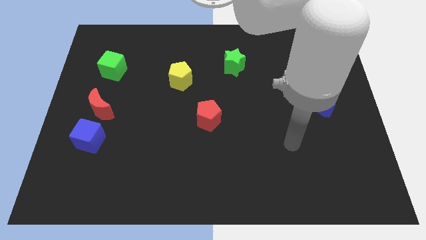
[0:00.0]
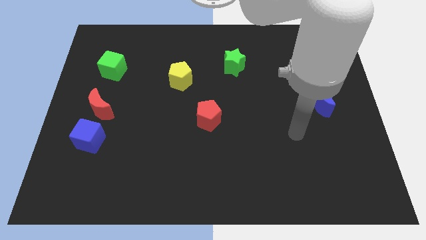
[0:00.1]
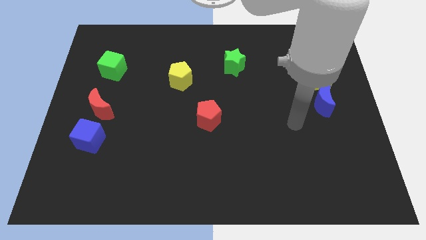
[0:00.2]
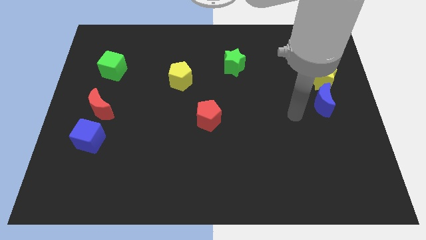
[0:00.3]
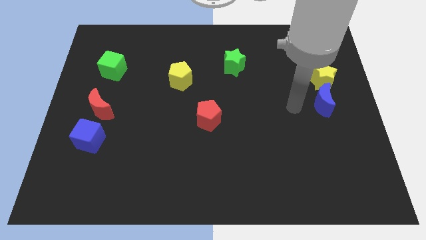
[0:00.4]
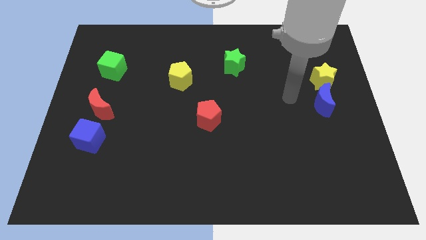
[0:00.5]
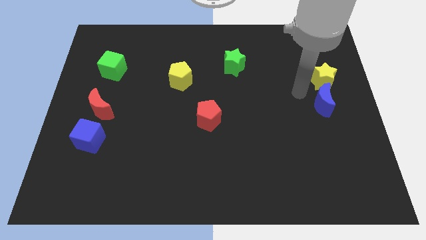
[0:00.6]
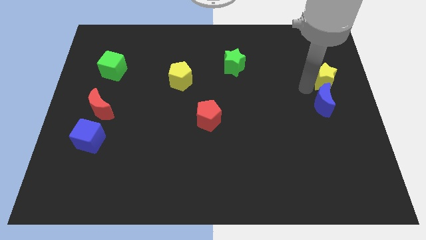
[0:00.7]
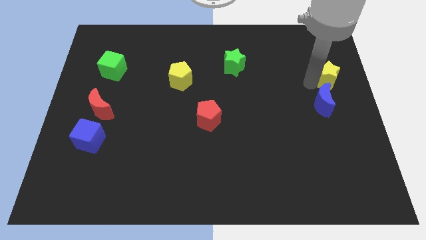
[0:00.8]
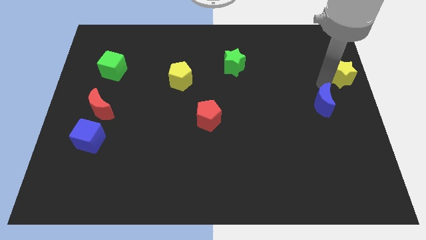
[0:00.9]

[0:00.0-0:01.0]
pull the blue moon apart from the yellow star

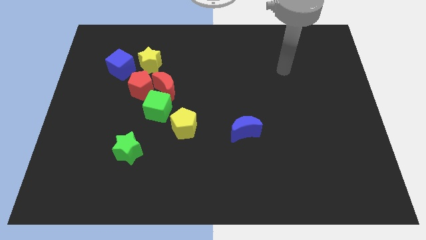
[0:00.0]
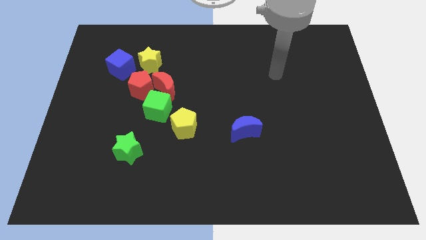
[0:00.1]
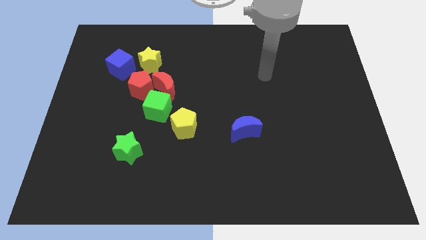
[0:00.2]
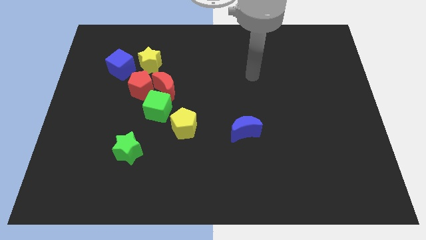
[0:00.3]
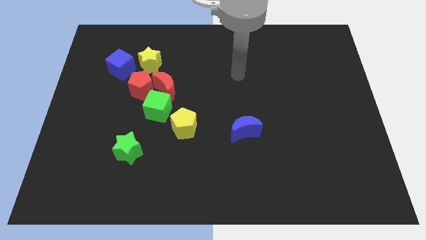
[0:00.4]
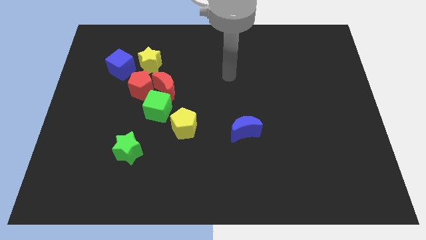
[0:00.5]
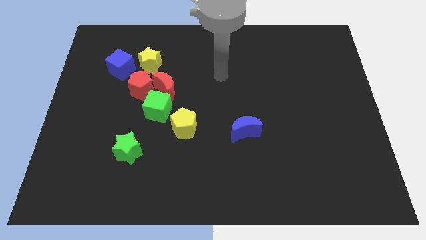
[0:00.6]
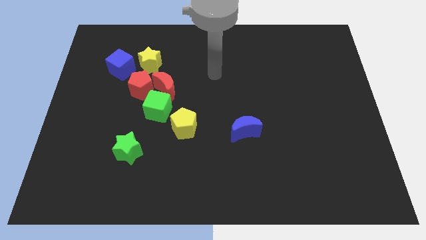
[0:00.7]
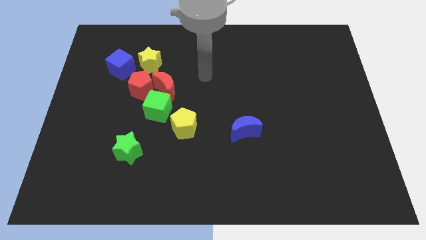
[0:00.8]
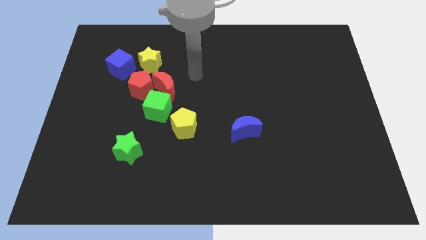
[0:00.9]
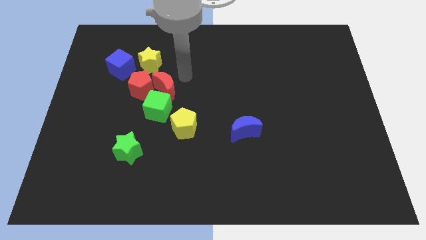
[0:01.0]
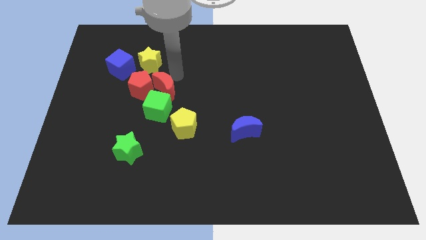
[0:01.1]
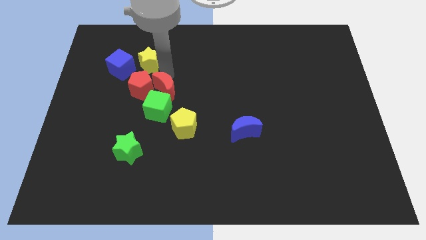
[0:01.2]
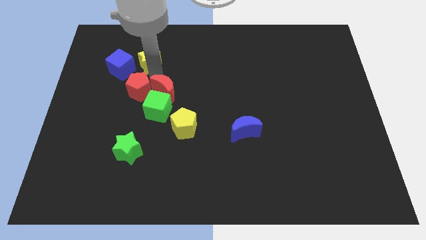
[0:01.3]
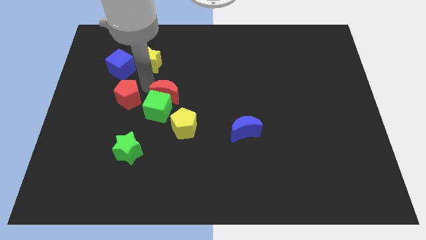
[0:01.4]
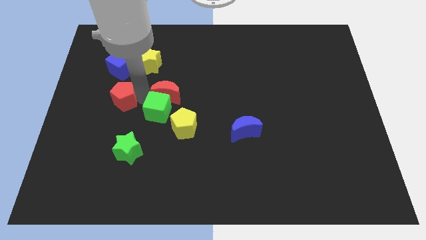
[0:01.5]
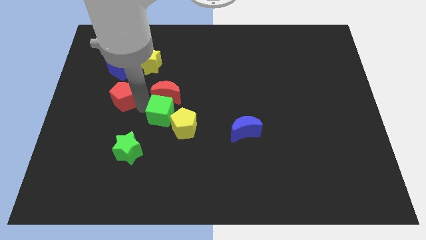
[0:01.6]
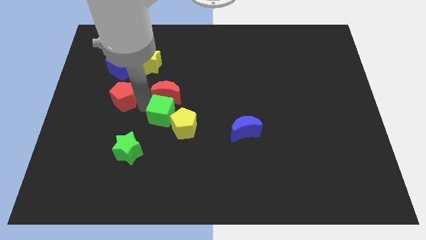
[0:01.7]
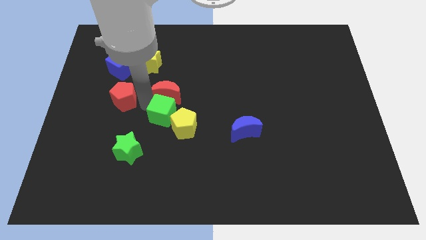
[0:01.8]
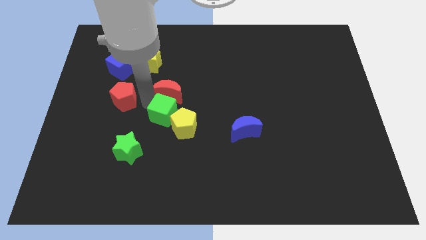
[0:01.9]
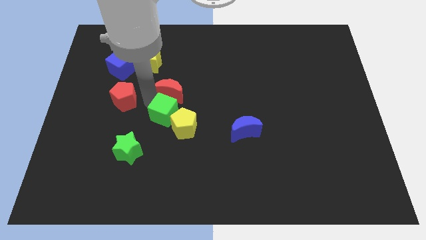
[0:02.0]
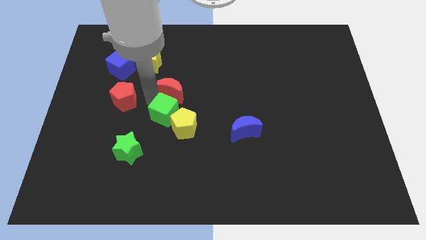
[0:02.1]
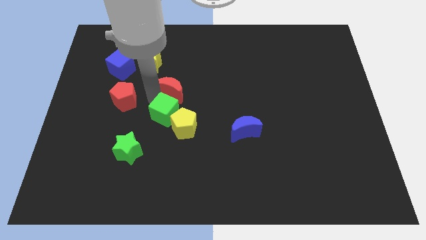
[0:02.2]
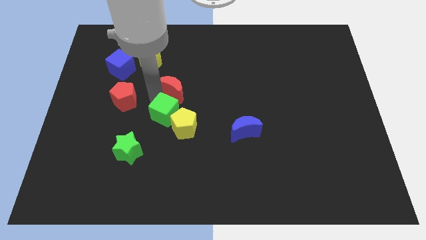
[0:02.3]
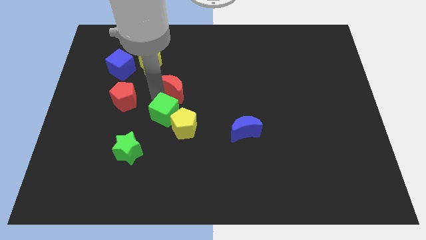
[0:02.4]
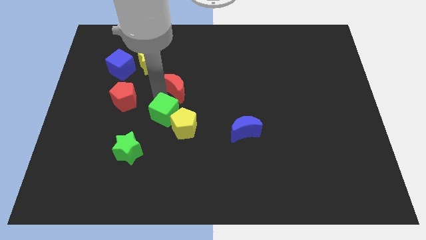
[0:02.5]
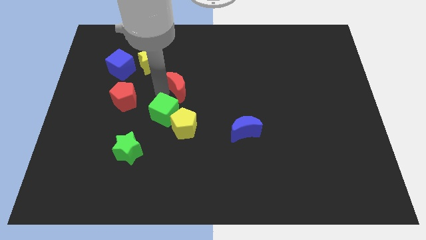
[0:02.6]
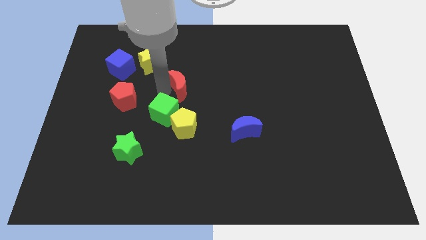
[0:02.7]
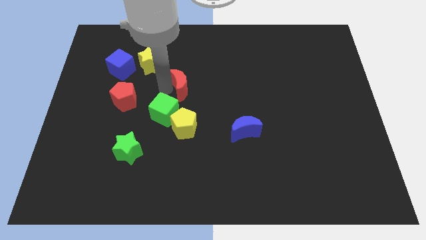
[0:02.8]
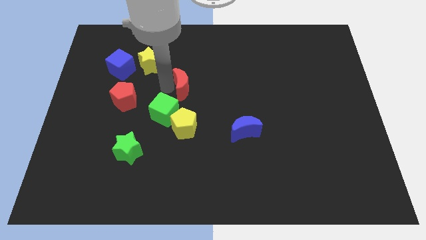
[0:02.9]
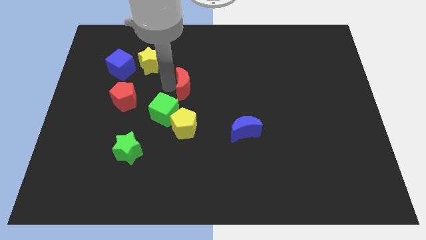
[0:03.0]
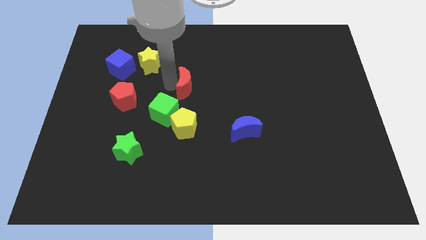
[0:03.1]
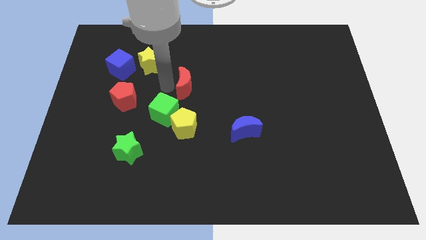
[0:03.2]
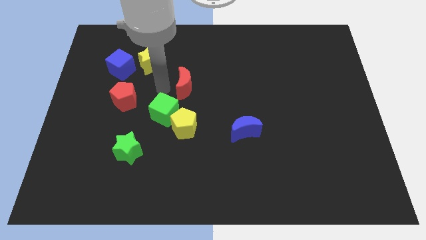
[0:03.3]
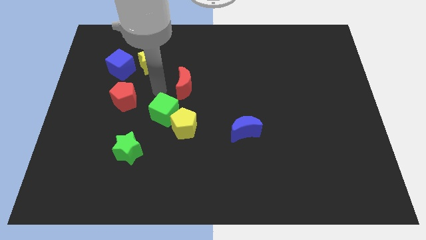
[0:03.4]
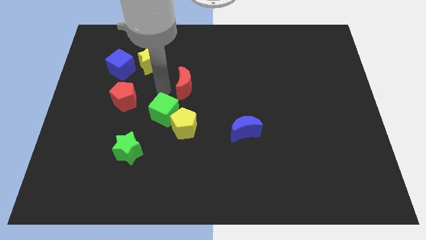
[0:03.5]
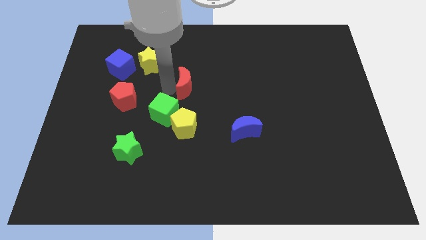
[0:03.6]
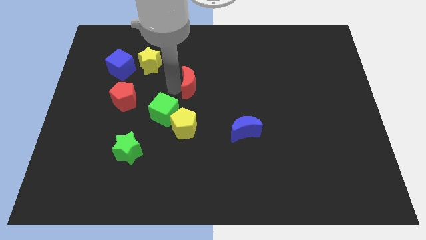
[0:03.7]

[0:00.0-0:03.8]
move the red moon away from the group of blocks

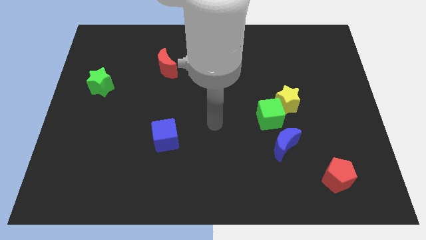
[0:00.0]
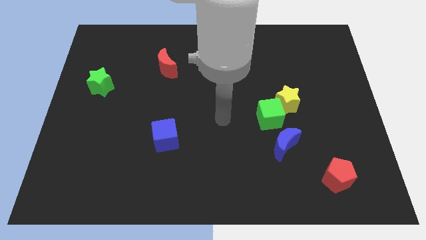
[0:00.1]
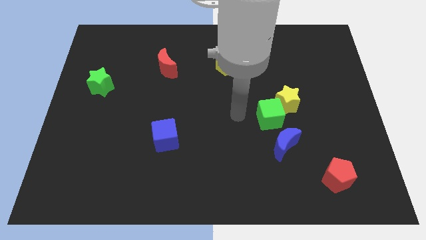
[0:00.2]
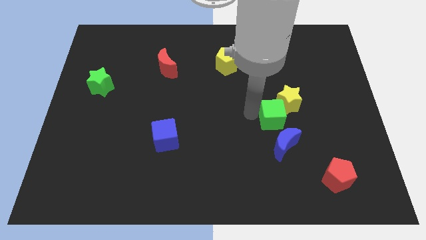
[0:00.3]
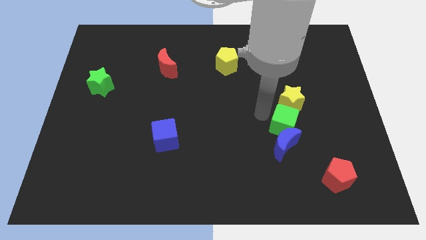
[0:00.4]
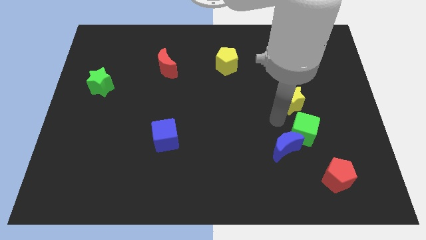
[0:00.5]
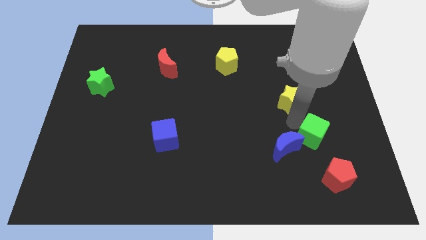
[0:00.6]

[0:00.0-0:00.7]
move the yellow star away from the green cube

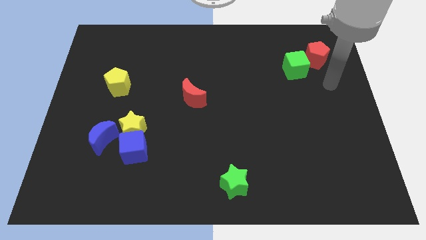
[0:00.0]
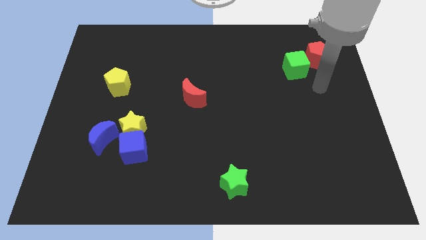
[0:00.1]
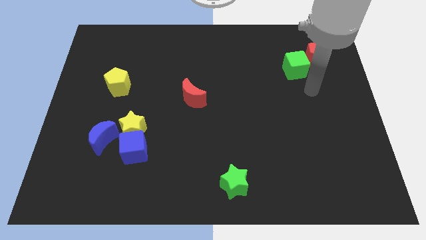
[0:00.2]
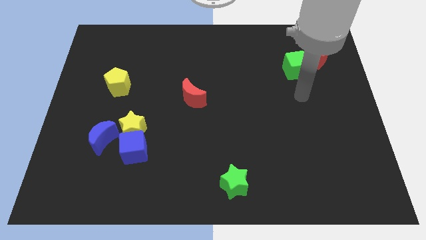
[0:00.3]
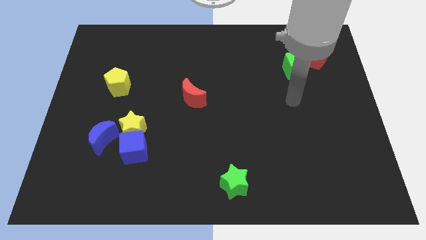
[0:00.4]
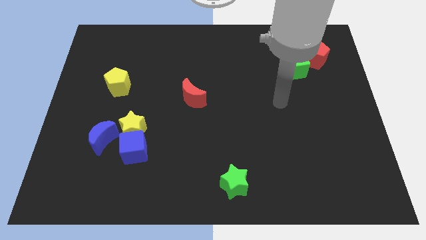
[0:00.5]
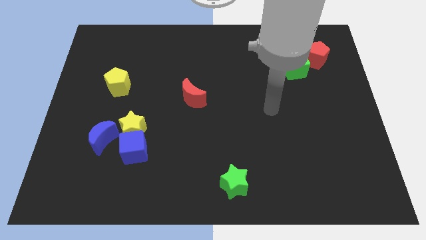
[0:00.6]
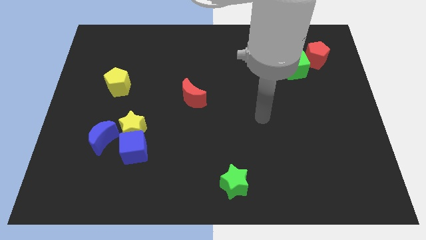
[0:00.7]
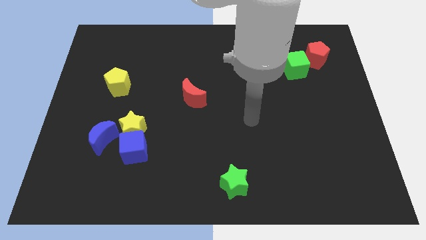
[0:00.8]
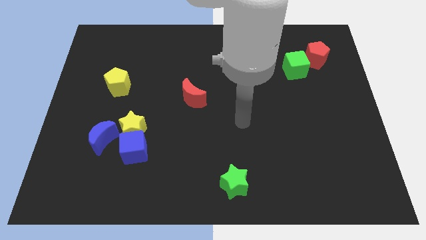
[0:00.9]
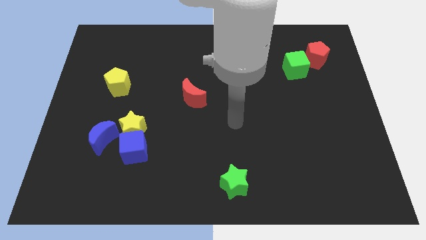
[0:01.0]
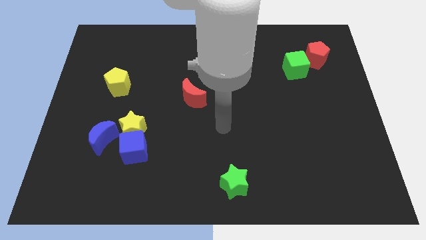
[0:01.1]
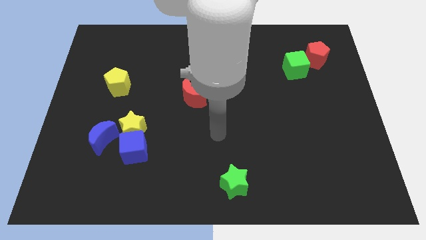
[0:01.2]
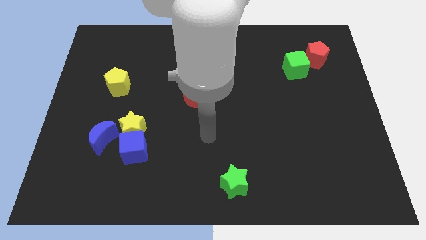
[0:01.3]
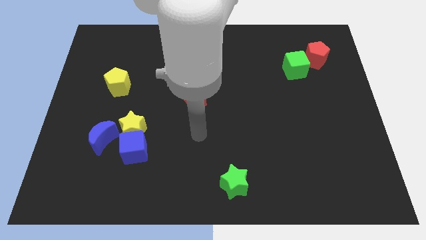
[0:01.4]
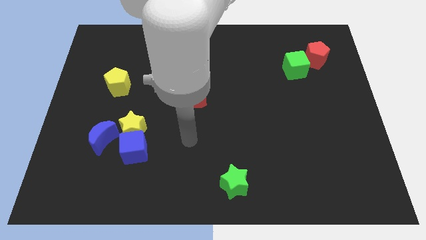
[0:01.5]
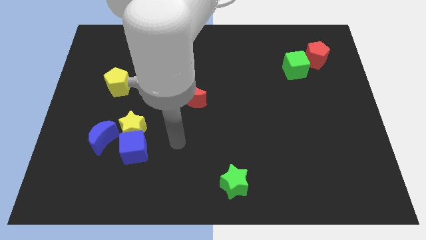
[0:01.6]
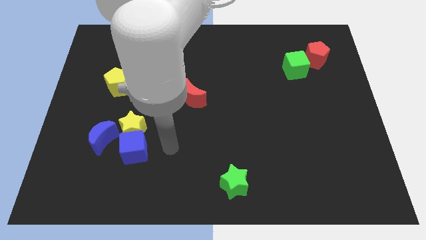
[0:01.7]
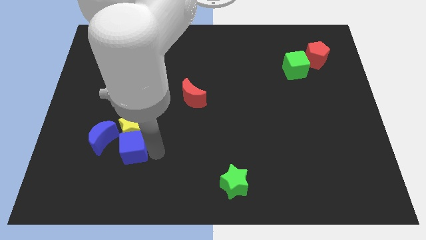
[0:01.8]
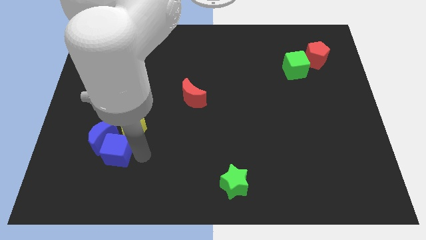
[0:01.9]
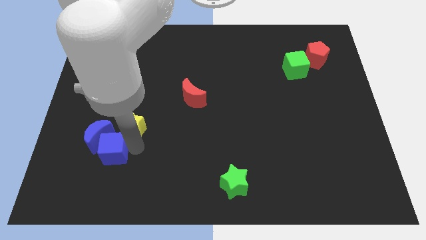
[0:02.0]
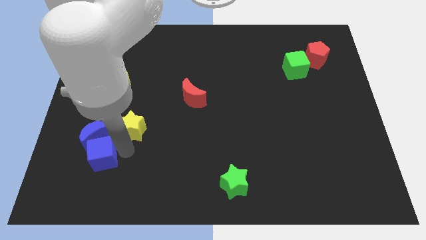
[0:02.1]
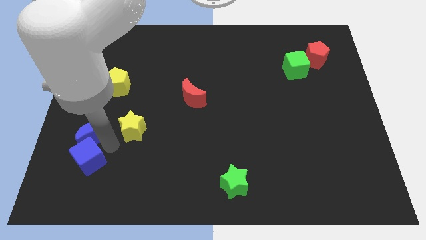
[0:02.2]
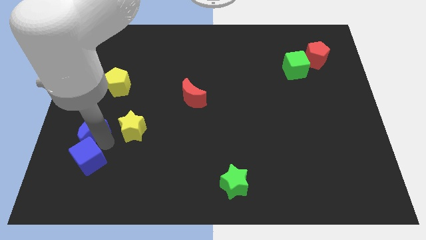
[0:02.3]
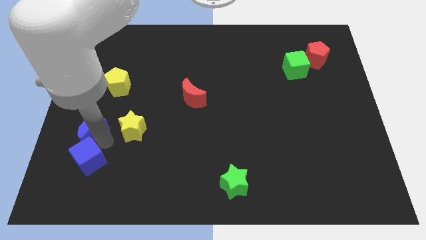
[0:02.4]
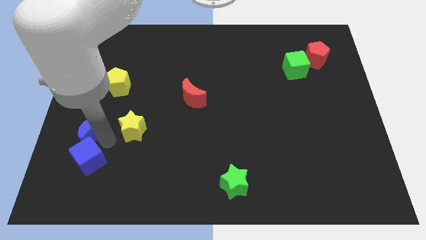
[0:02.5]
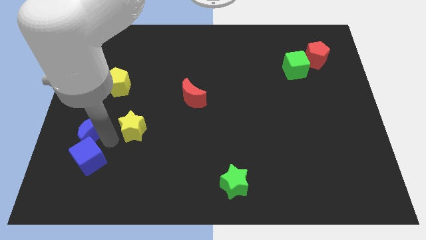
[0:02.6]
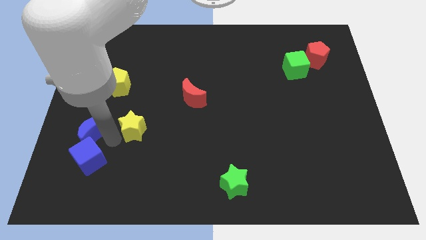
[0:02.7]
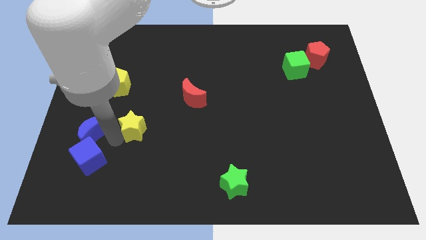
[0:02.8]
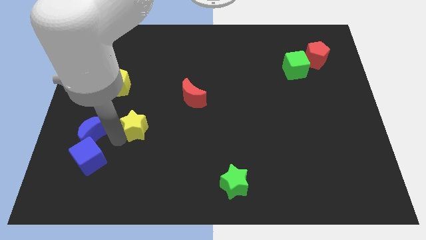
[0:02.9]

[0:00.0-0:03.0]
pull the yellow star apart from the blue cube and blue moon

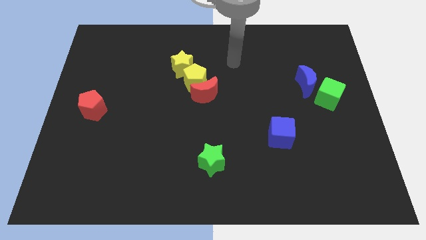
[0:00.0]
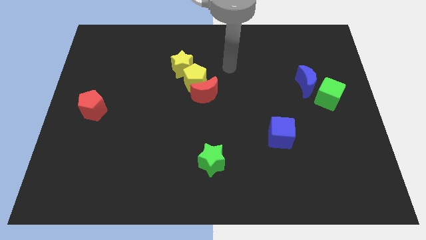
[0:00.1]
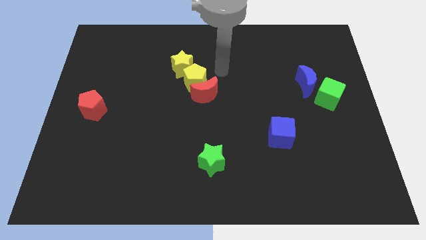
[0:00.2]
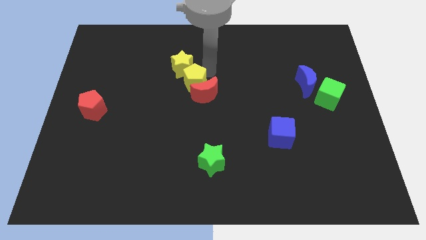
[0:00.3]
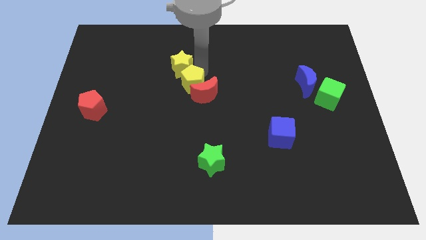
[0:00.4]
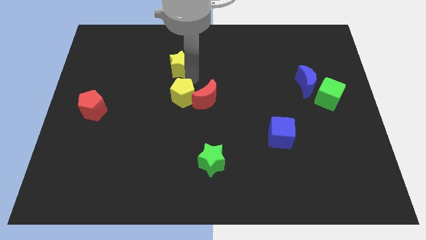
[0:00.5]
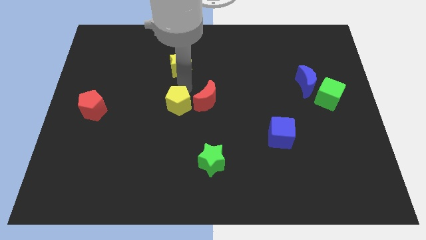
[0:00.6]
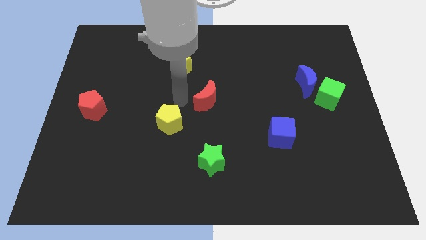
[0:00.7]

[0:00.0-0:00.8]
separate the red moon from the yellow pentagon
